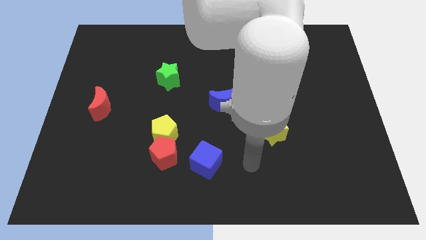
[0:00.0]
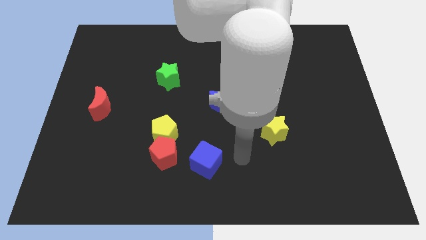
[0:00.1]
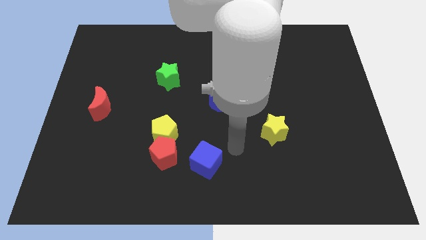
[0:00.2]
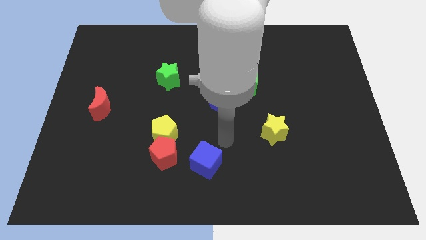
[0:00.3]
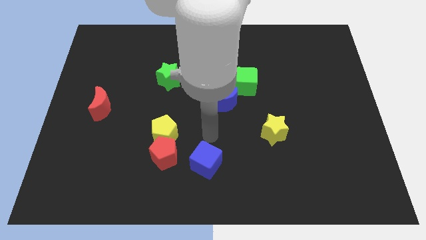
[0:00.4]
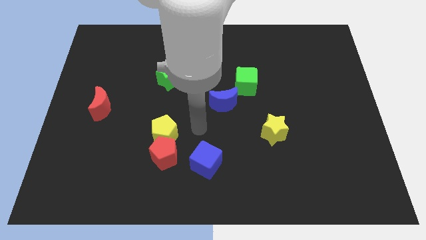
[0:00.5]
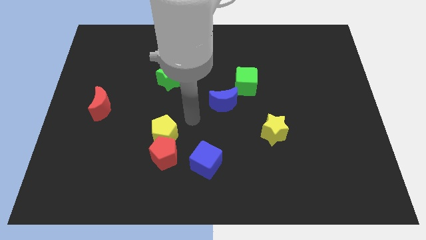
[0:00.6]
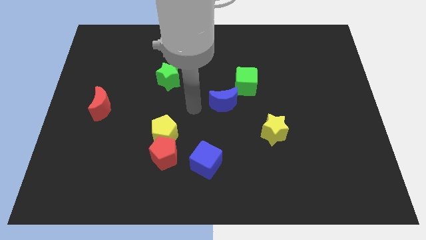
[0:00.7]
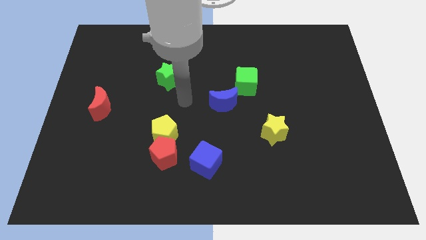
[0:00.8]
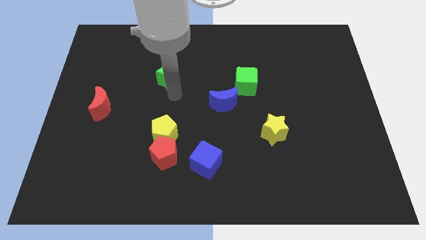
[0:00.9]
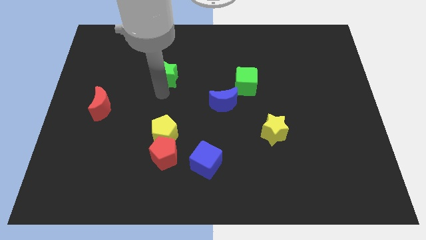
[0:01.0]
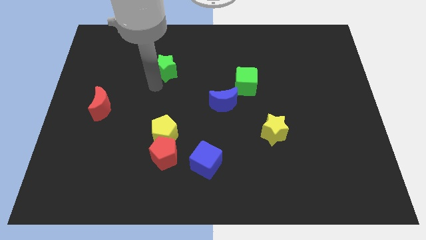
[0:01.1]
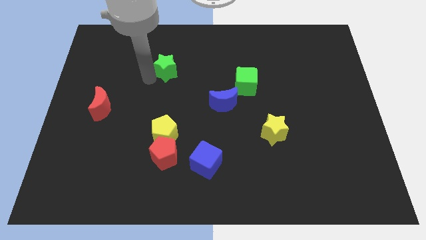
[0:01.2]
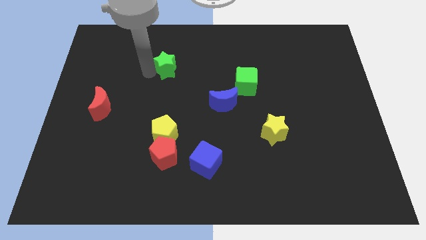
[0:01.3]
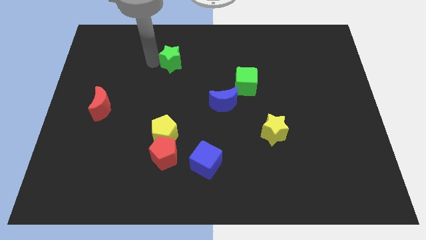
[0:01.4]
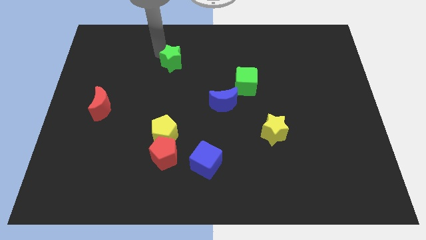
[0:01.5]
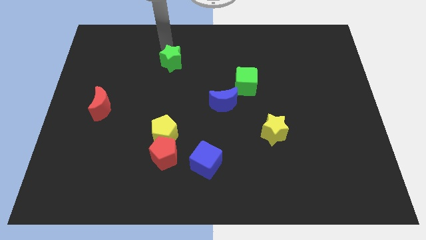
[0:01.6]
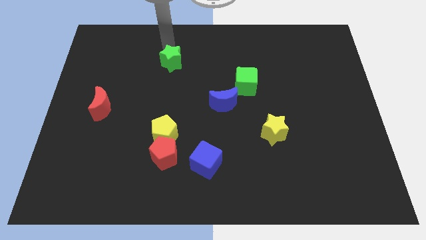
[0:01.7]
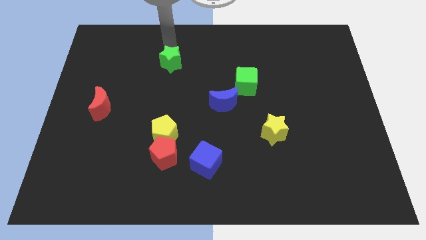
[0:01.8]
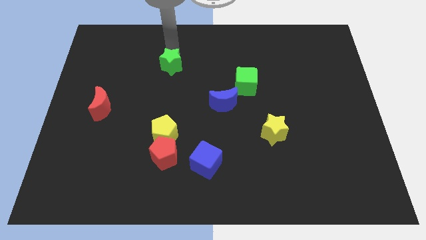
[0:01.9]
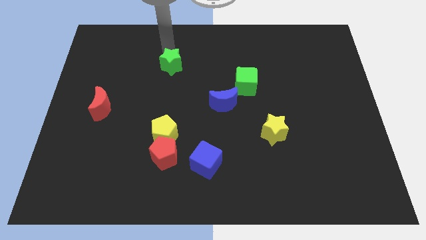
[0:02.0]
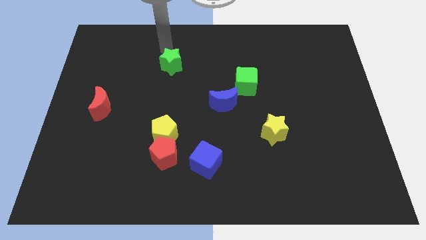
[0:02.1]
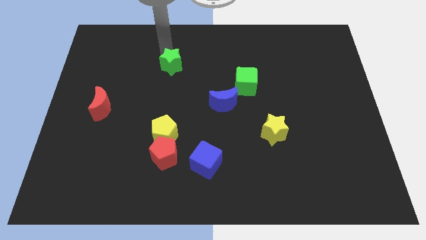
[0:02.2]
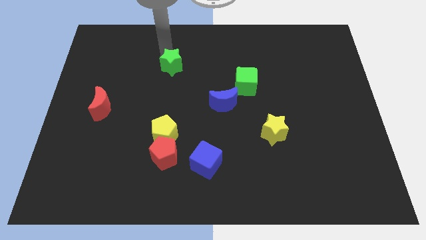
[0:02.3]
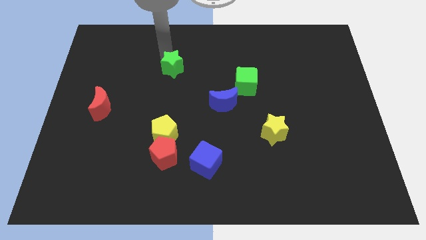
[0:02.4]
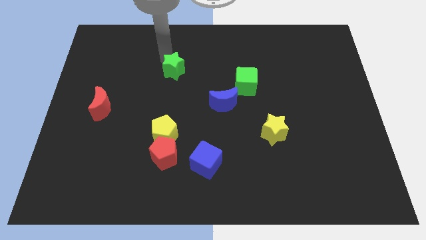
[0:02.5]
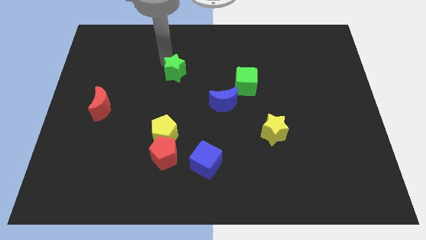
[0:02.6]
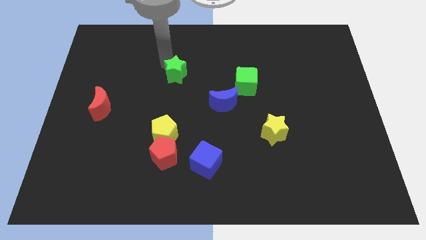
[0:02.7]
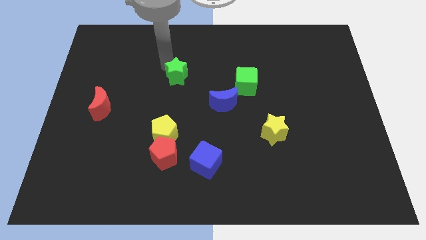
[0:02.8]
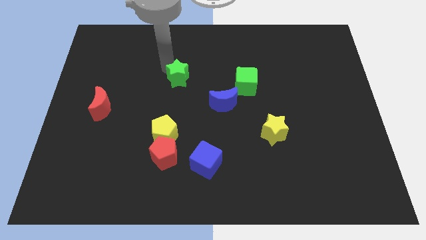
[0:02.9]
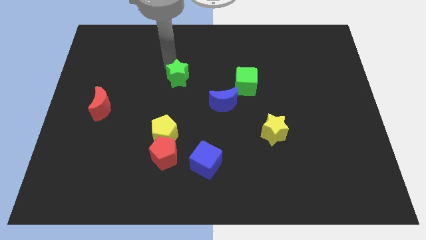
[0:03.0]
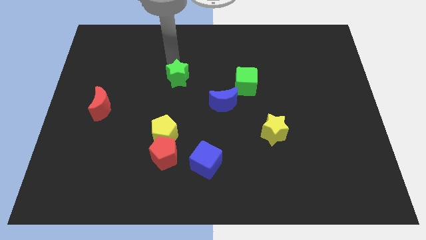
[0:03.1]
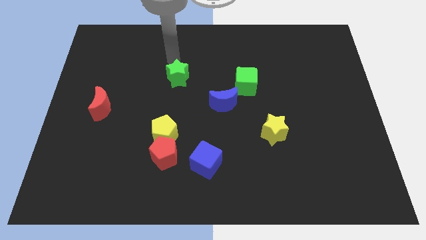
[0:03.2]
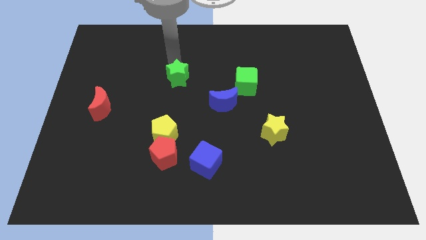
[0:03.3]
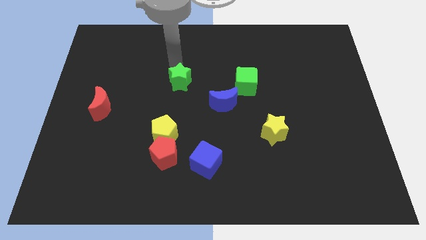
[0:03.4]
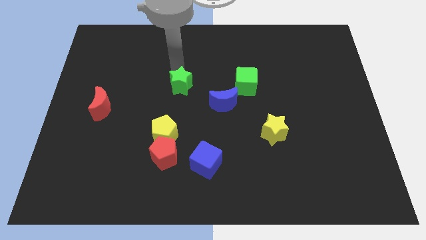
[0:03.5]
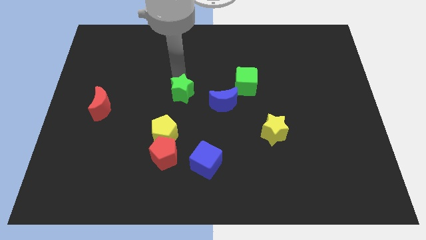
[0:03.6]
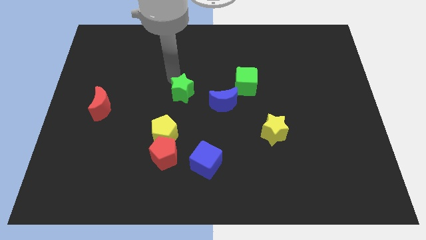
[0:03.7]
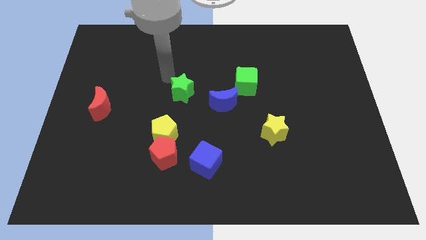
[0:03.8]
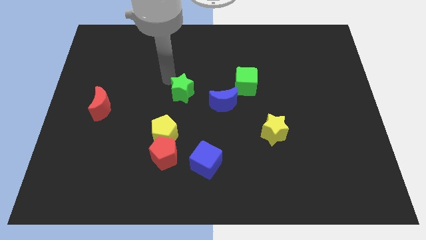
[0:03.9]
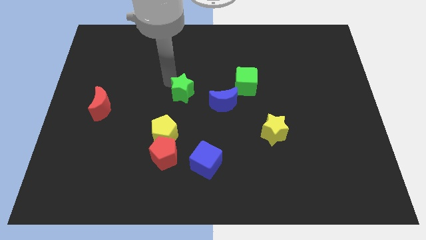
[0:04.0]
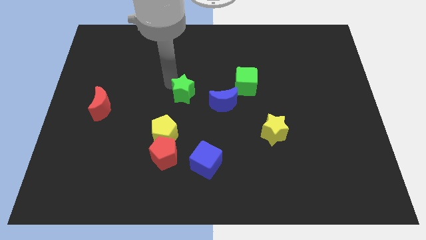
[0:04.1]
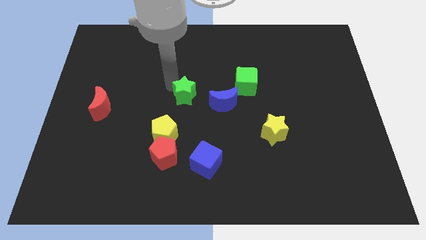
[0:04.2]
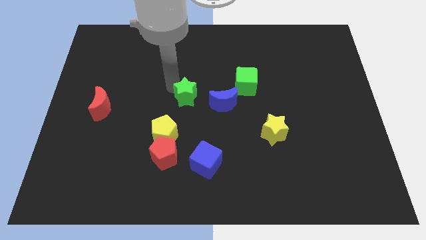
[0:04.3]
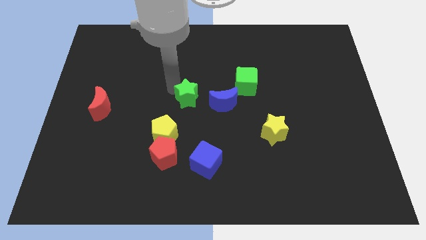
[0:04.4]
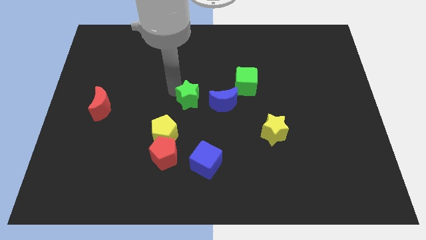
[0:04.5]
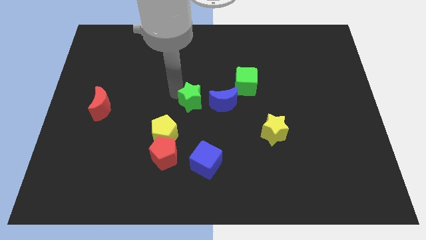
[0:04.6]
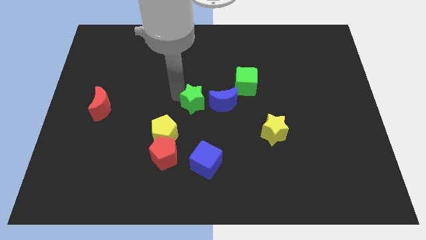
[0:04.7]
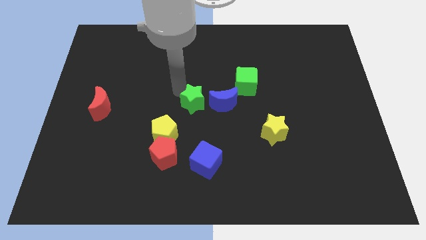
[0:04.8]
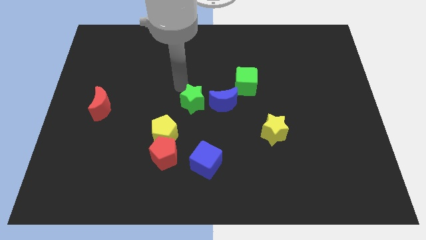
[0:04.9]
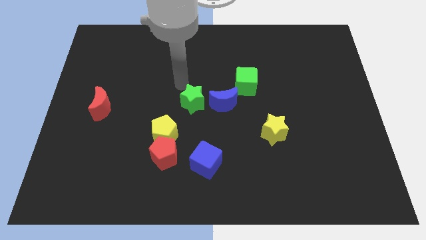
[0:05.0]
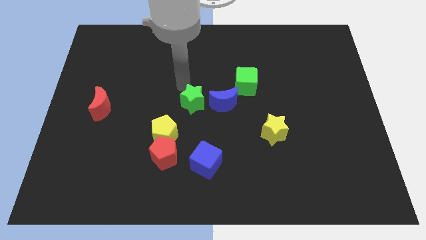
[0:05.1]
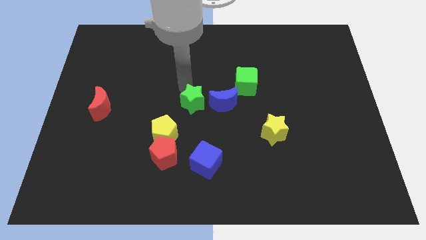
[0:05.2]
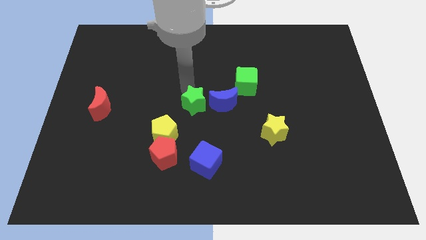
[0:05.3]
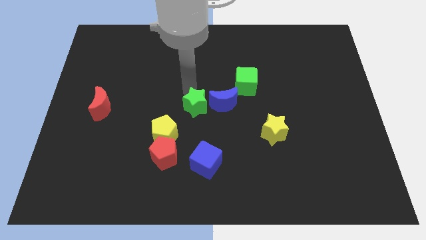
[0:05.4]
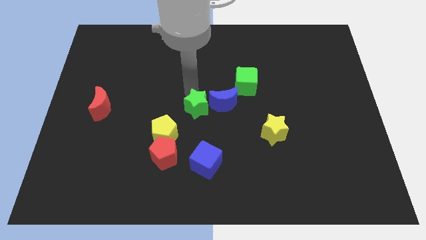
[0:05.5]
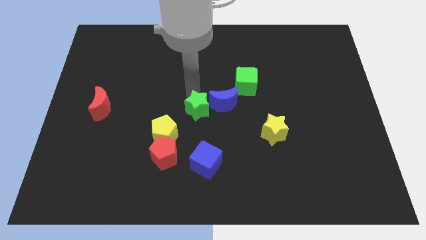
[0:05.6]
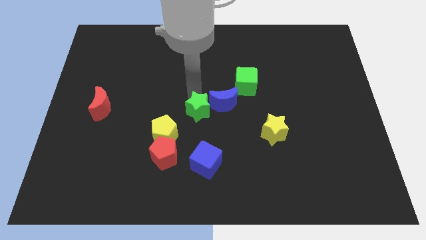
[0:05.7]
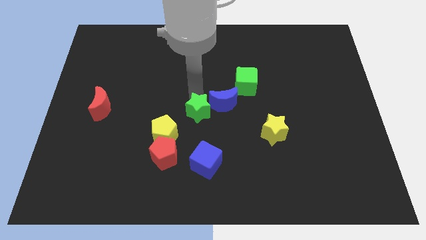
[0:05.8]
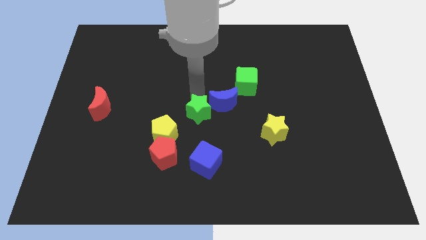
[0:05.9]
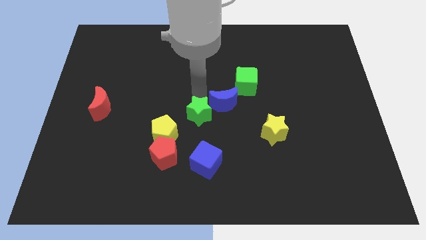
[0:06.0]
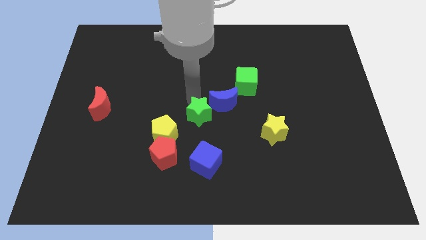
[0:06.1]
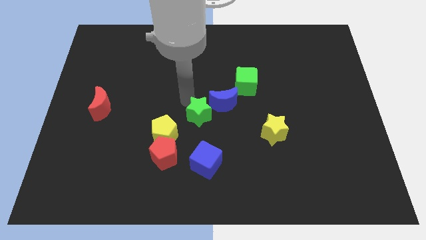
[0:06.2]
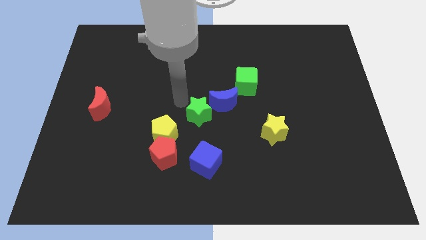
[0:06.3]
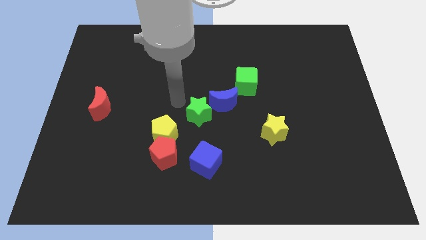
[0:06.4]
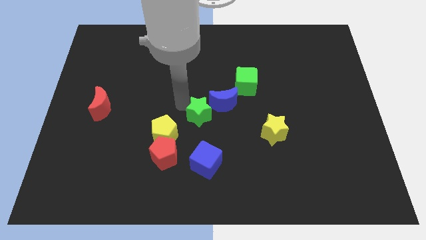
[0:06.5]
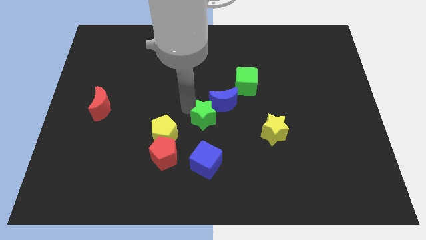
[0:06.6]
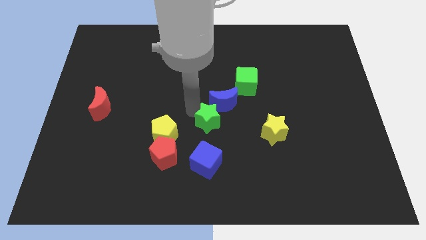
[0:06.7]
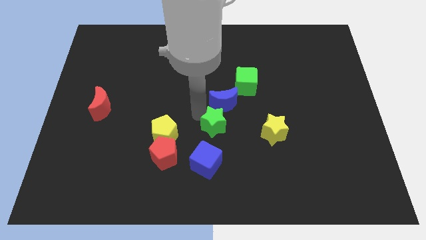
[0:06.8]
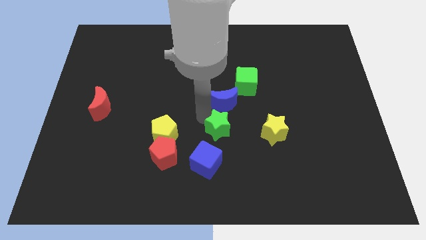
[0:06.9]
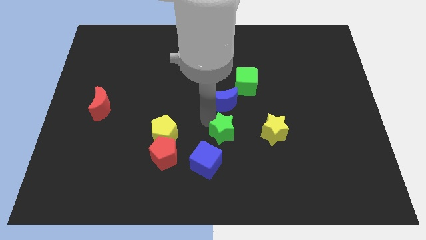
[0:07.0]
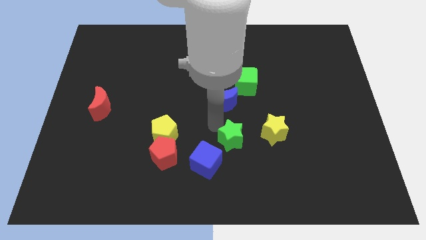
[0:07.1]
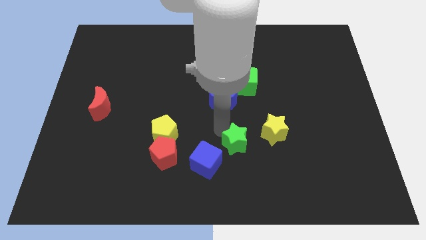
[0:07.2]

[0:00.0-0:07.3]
put the green star to the bottom left of the yellow star

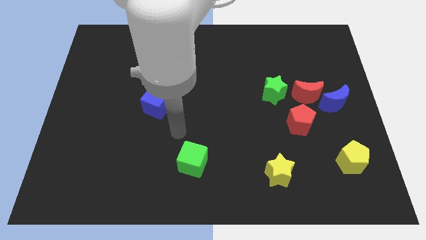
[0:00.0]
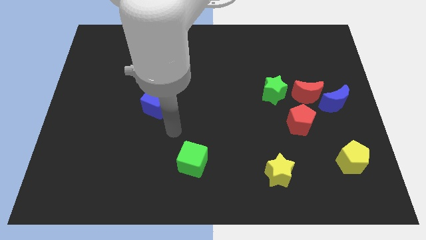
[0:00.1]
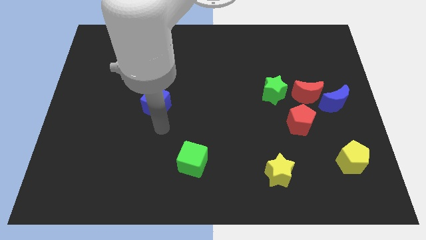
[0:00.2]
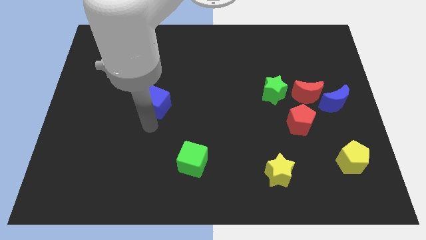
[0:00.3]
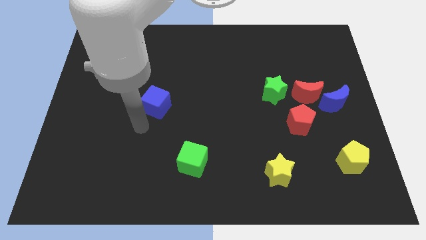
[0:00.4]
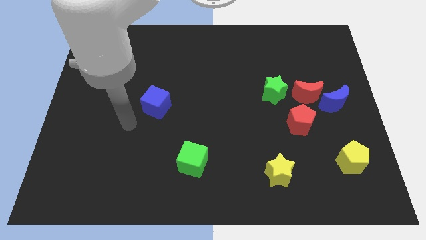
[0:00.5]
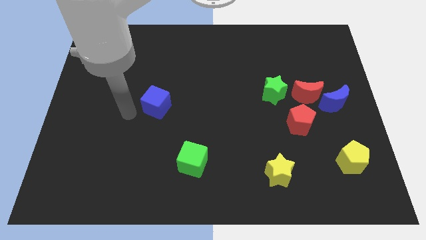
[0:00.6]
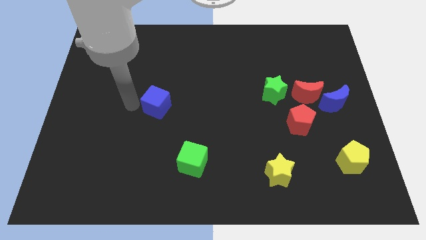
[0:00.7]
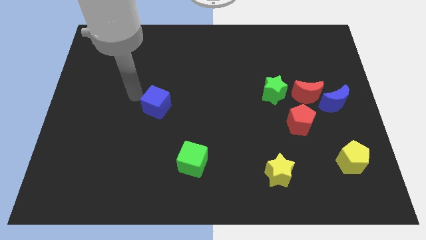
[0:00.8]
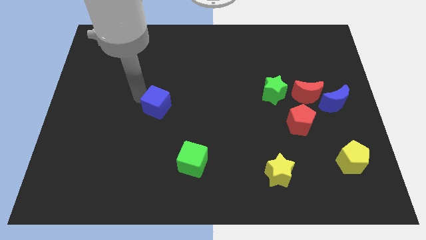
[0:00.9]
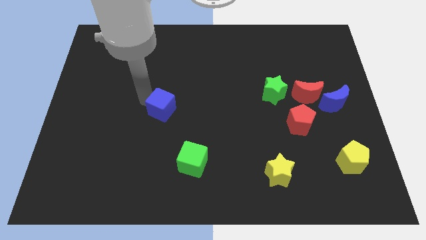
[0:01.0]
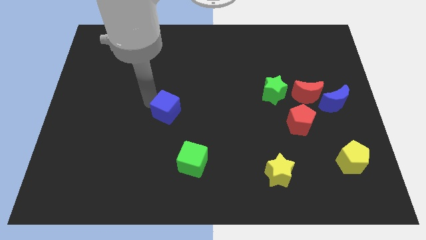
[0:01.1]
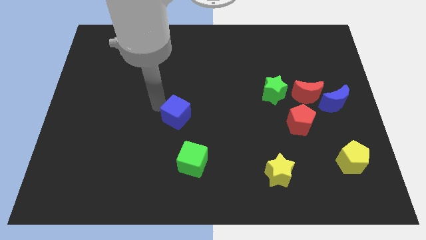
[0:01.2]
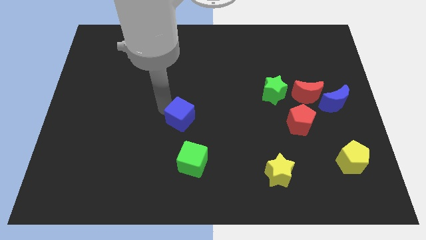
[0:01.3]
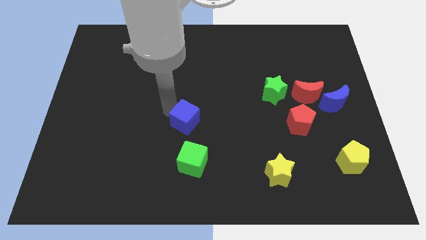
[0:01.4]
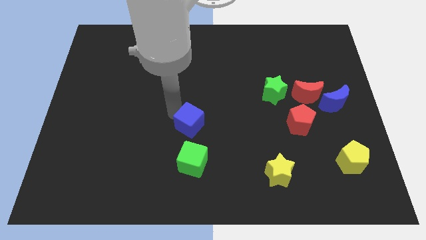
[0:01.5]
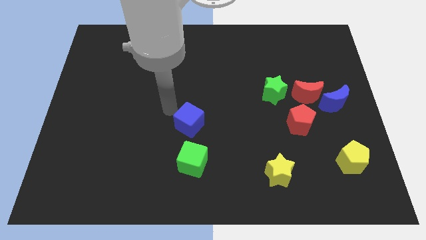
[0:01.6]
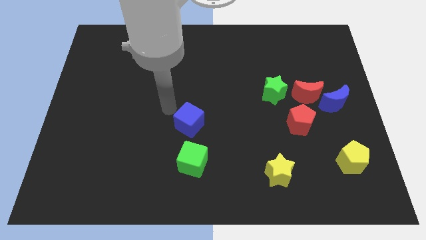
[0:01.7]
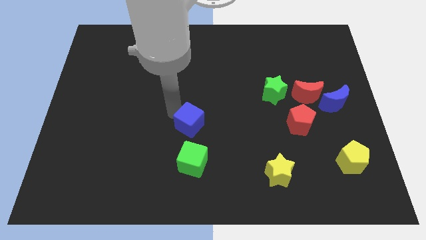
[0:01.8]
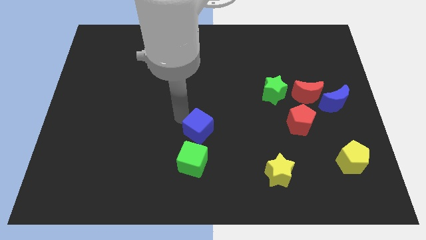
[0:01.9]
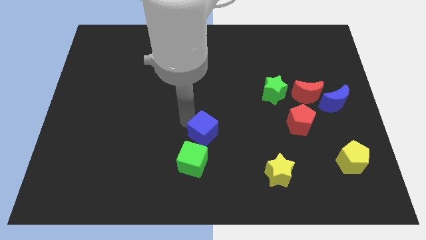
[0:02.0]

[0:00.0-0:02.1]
slide the blue cube diagonally up and to the right of the green cube
